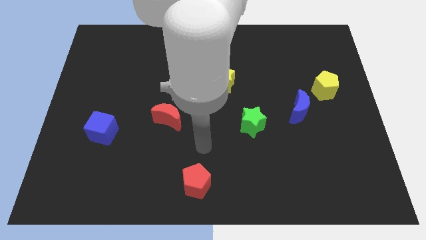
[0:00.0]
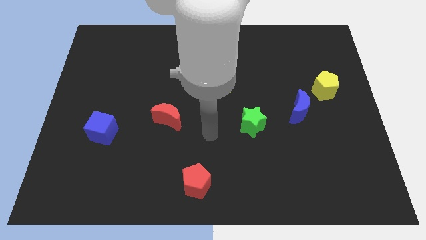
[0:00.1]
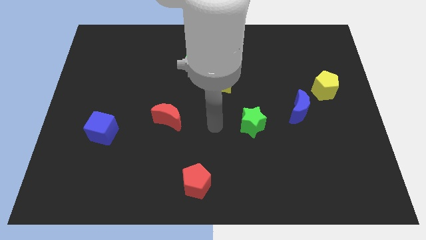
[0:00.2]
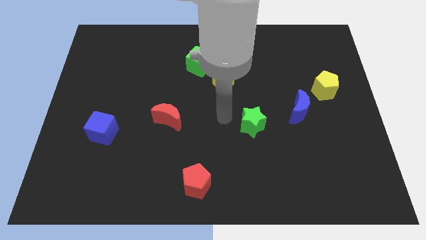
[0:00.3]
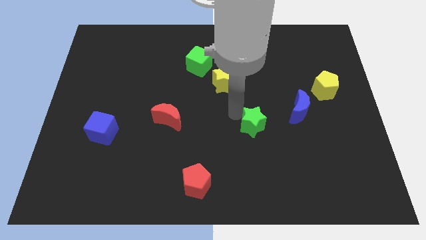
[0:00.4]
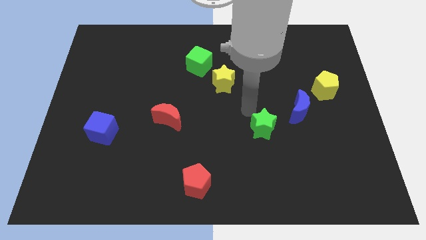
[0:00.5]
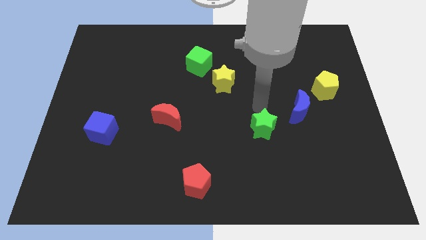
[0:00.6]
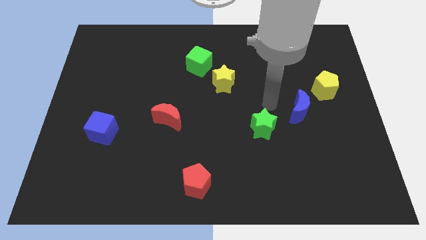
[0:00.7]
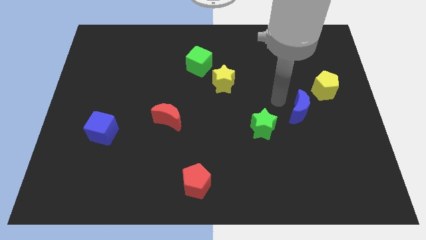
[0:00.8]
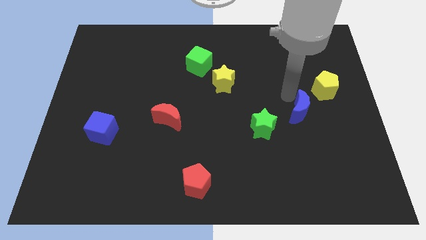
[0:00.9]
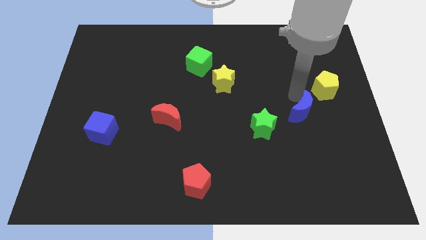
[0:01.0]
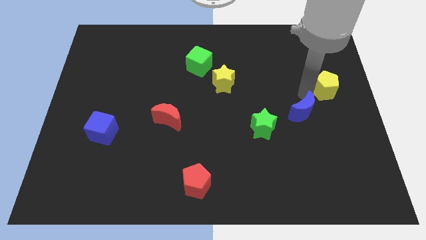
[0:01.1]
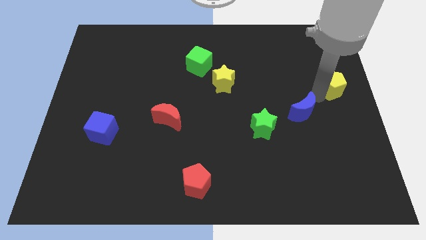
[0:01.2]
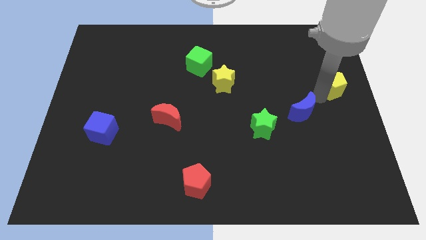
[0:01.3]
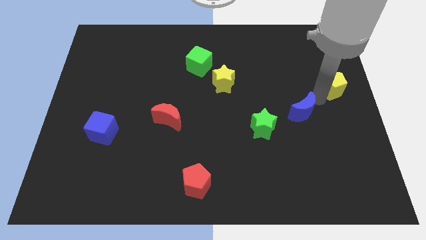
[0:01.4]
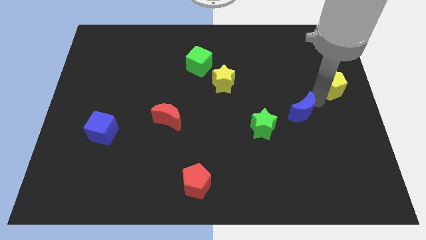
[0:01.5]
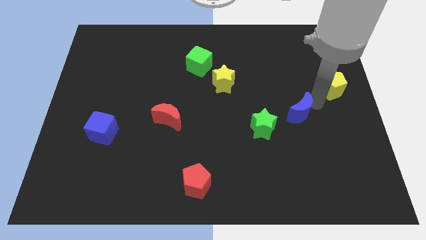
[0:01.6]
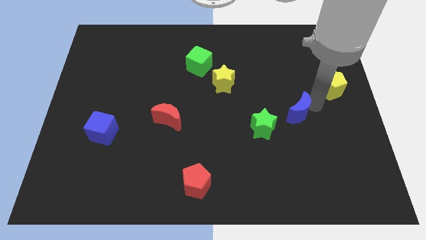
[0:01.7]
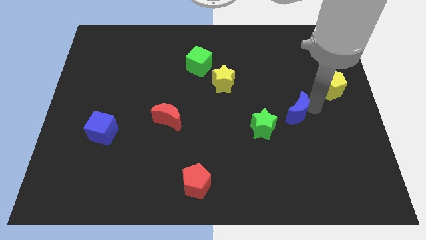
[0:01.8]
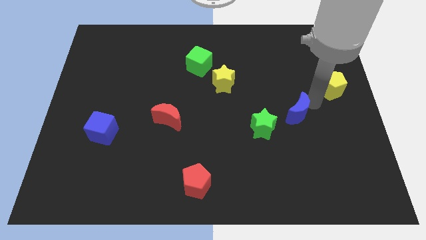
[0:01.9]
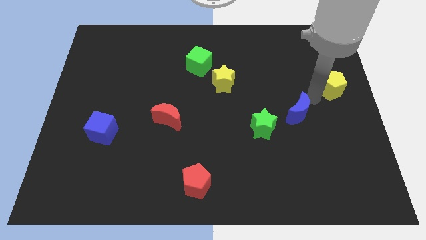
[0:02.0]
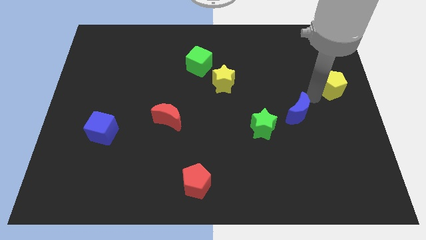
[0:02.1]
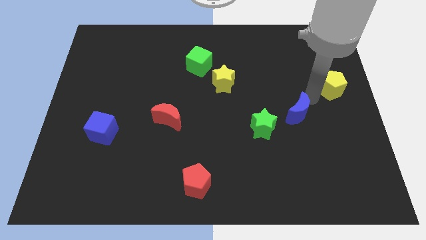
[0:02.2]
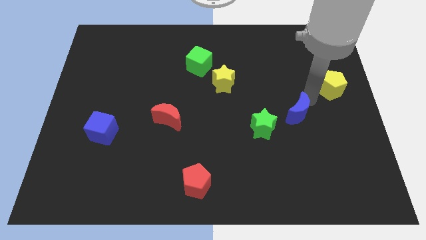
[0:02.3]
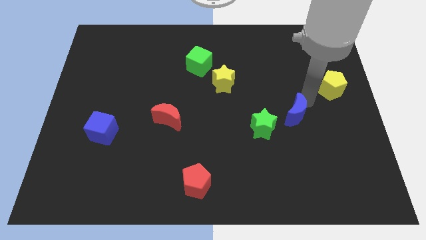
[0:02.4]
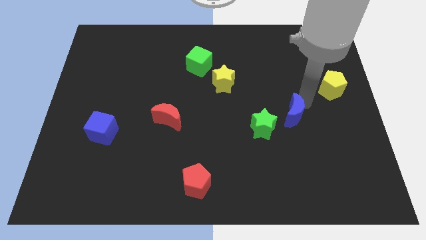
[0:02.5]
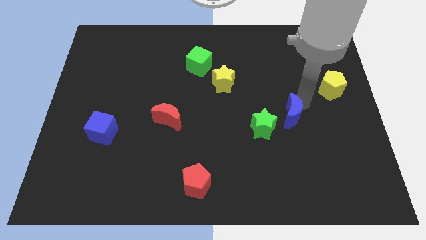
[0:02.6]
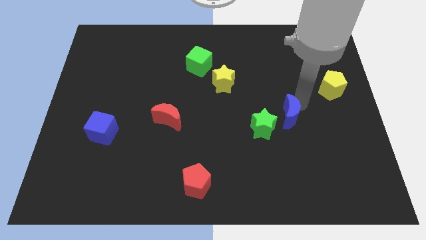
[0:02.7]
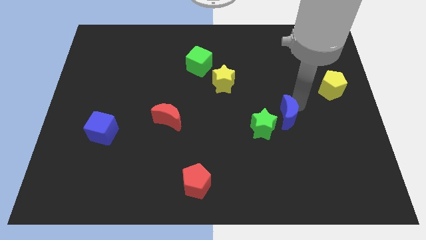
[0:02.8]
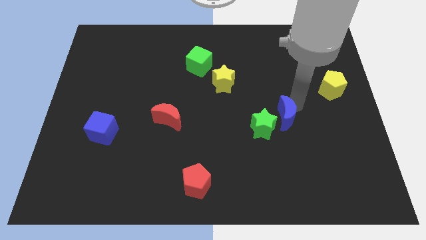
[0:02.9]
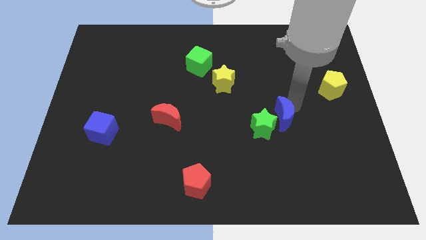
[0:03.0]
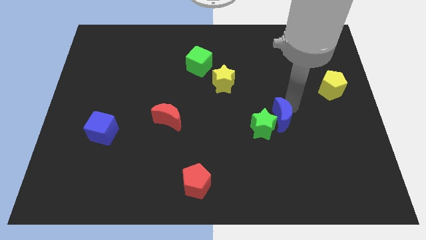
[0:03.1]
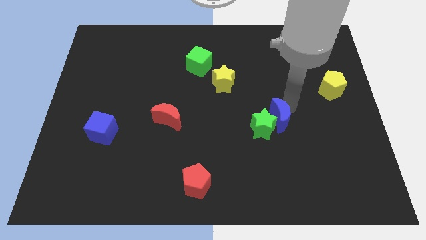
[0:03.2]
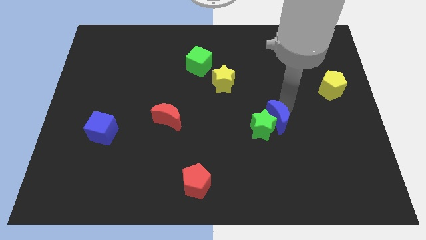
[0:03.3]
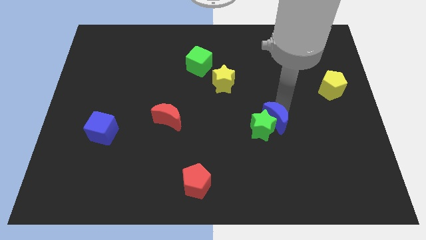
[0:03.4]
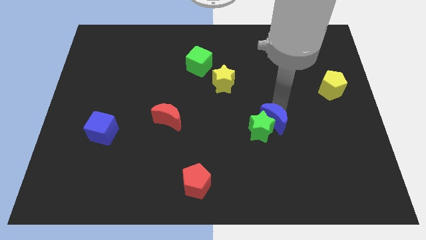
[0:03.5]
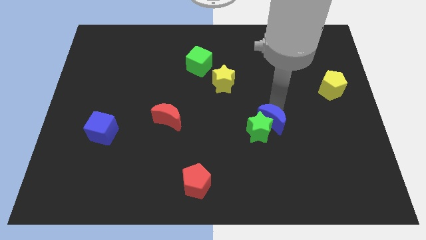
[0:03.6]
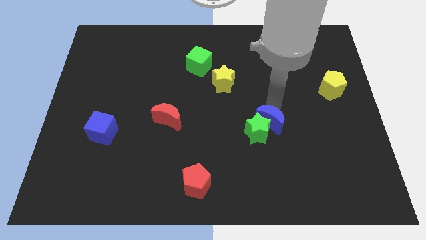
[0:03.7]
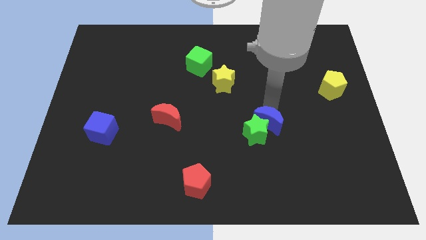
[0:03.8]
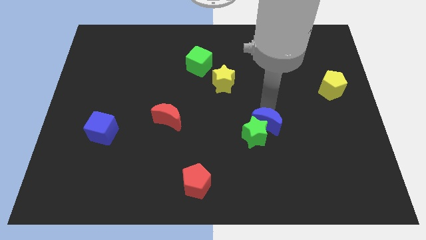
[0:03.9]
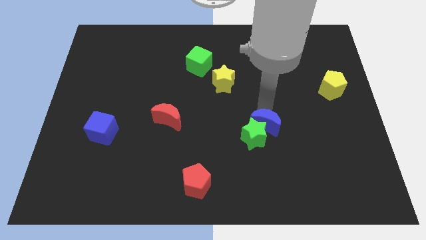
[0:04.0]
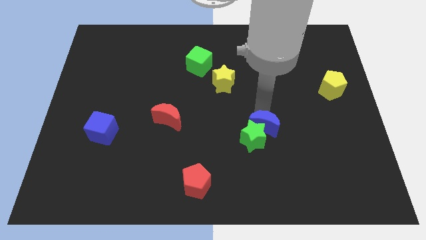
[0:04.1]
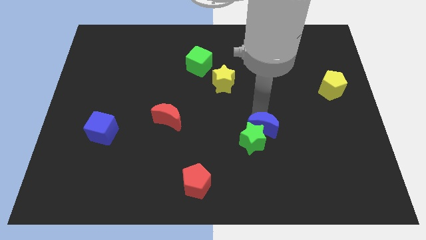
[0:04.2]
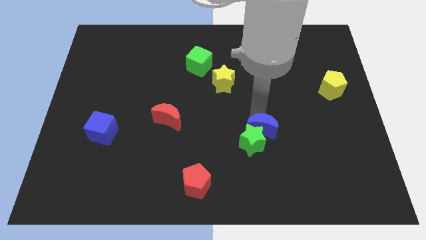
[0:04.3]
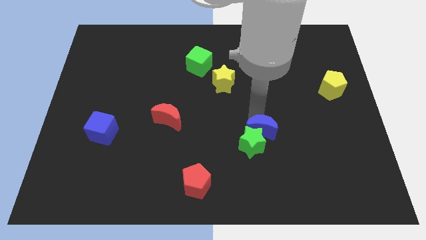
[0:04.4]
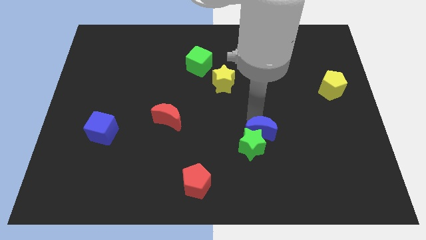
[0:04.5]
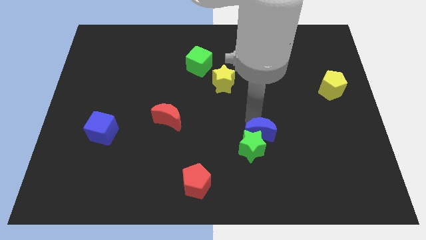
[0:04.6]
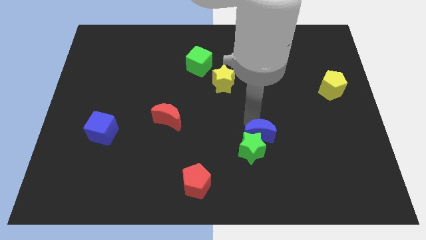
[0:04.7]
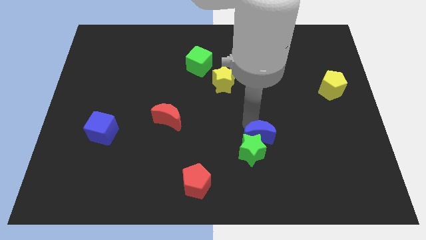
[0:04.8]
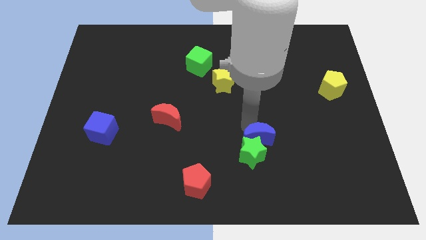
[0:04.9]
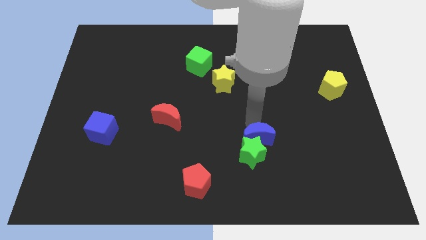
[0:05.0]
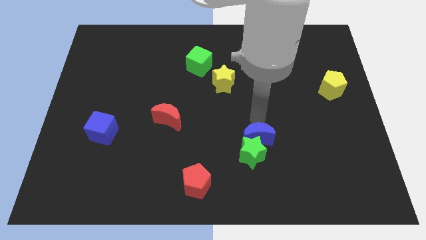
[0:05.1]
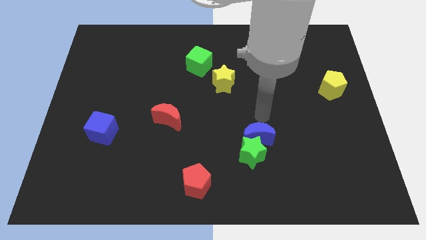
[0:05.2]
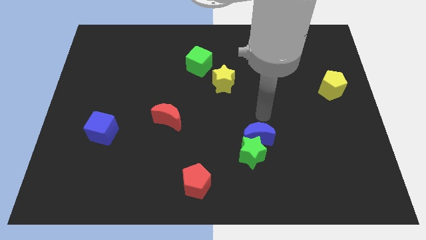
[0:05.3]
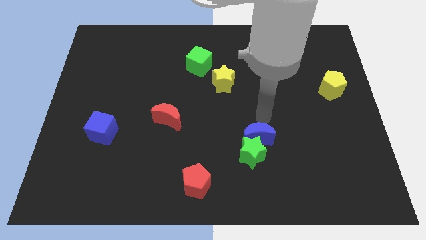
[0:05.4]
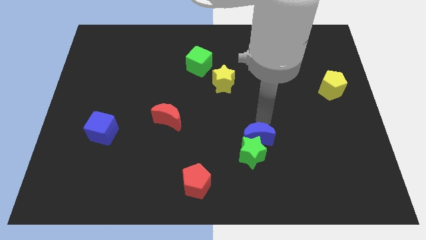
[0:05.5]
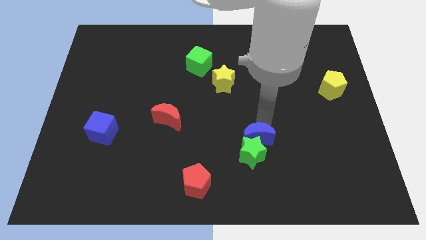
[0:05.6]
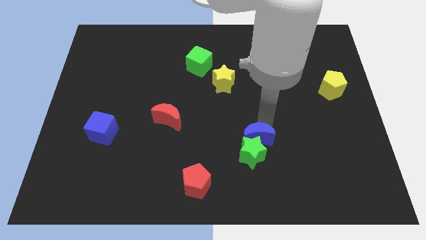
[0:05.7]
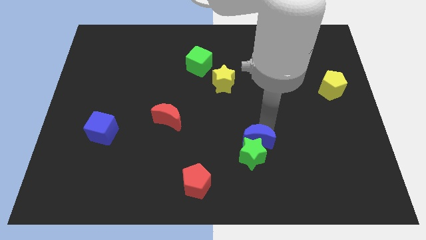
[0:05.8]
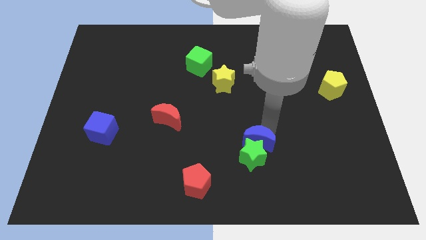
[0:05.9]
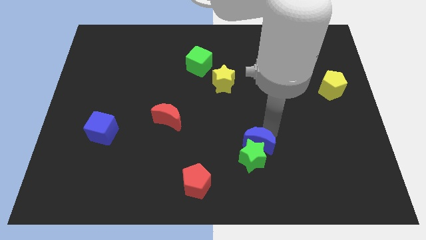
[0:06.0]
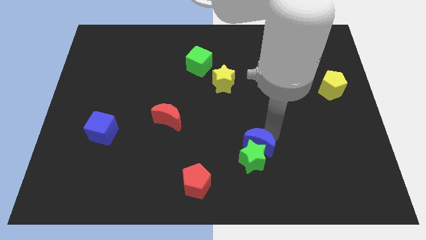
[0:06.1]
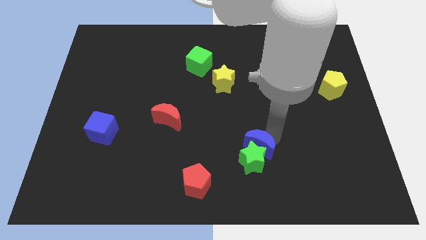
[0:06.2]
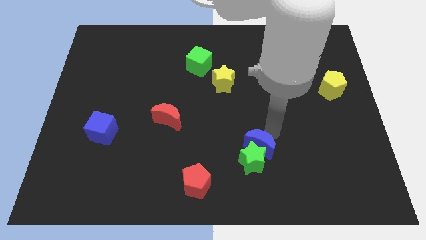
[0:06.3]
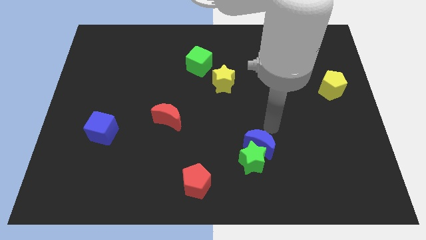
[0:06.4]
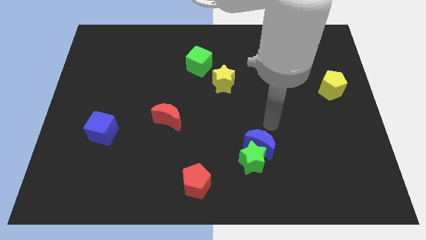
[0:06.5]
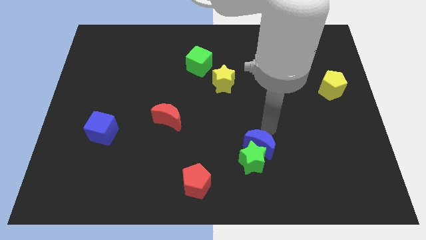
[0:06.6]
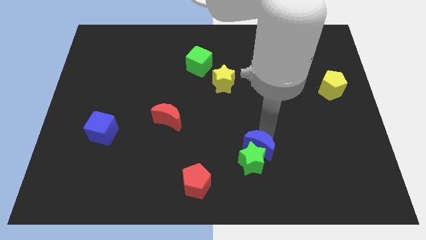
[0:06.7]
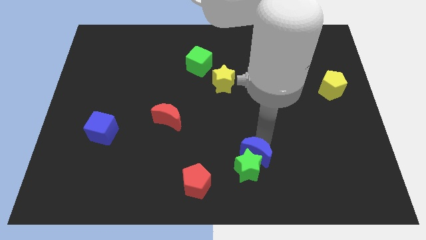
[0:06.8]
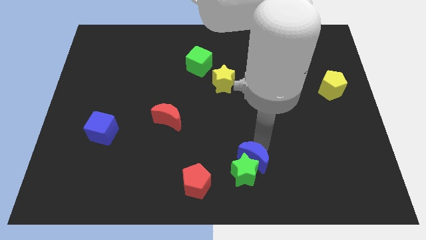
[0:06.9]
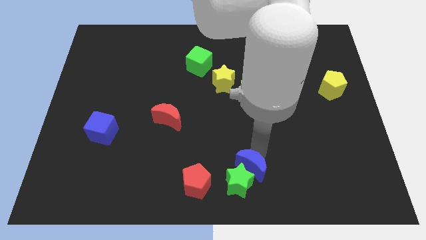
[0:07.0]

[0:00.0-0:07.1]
move the blue moon to the bottom
